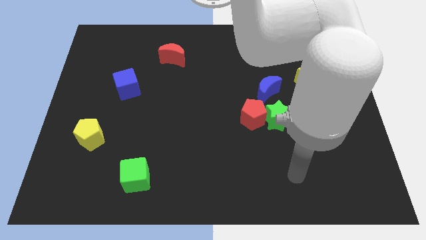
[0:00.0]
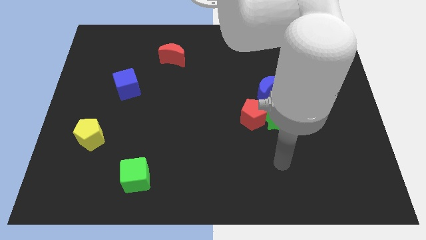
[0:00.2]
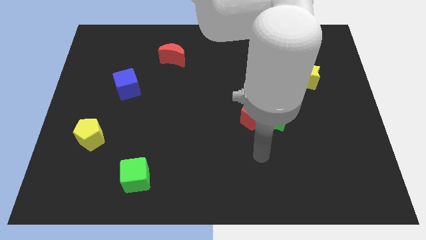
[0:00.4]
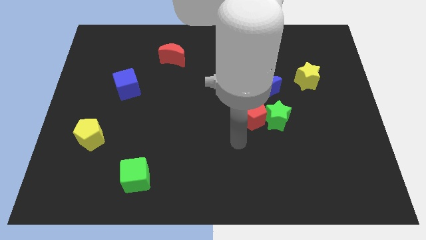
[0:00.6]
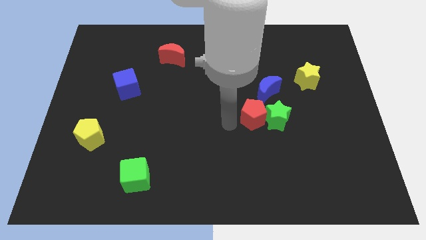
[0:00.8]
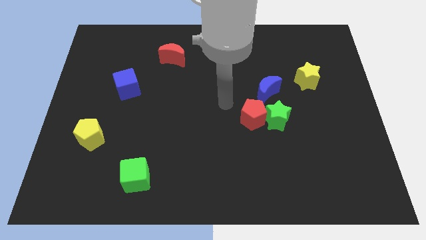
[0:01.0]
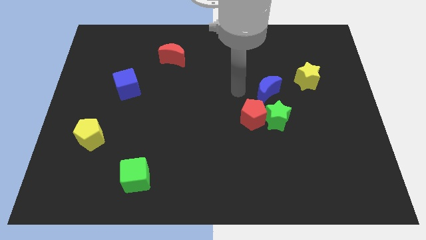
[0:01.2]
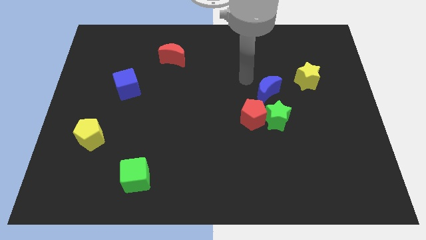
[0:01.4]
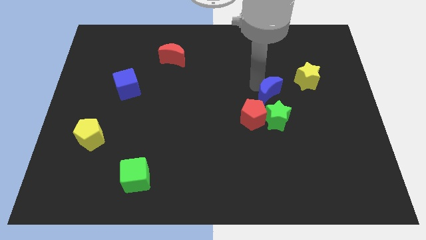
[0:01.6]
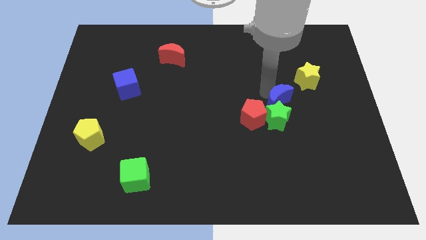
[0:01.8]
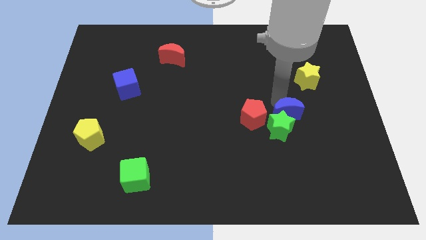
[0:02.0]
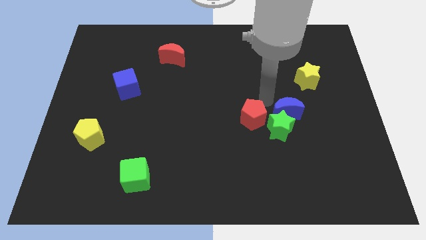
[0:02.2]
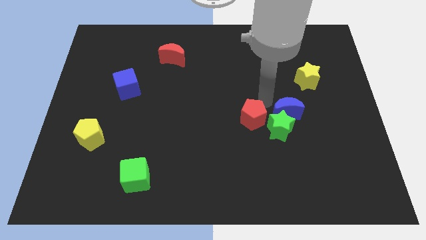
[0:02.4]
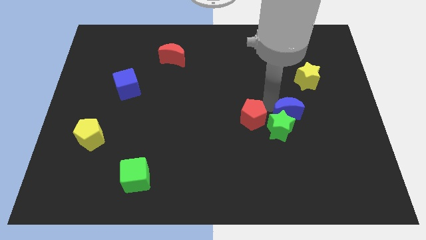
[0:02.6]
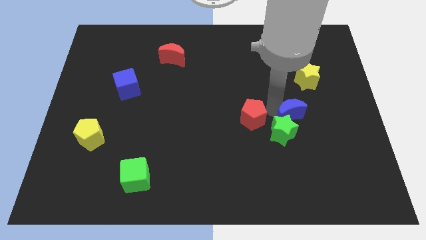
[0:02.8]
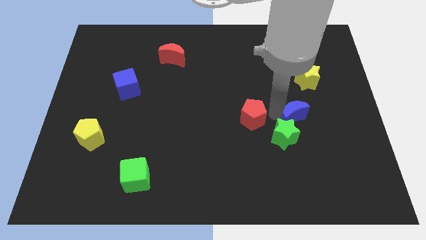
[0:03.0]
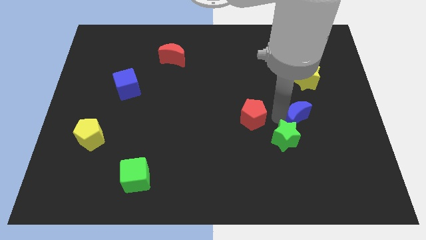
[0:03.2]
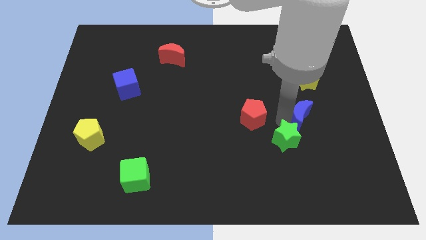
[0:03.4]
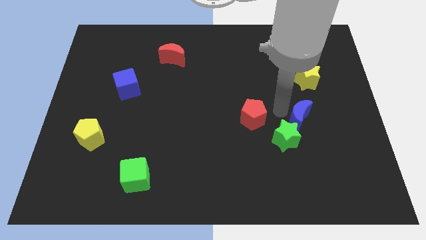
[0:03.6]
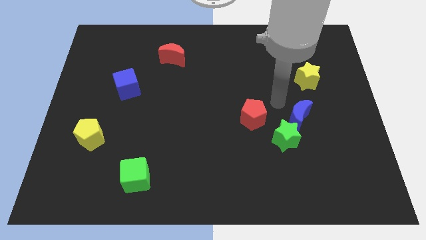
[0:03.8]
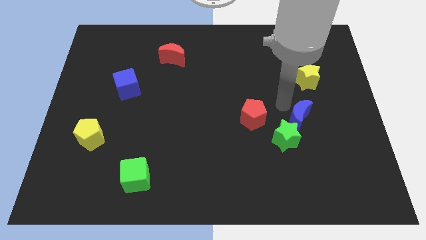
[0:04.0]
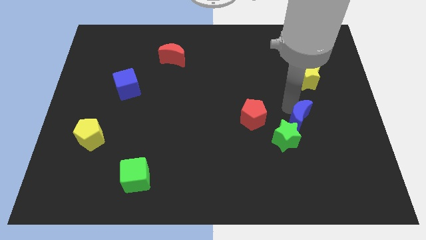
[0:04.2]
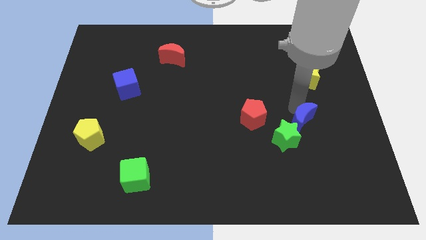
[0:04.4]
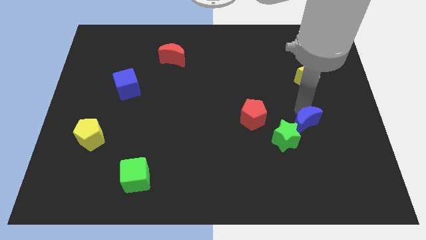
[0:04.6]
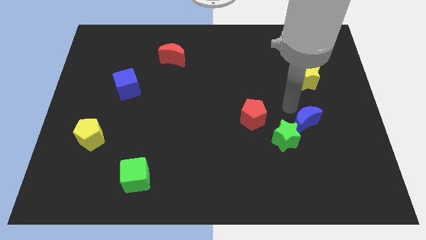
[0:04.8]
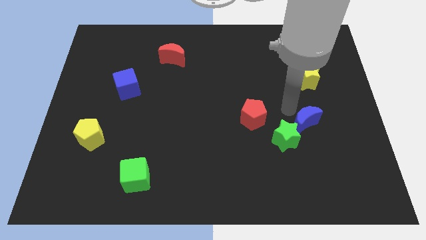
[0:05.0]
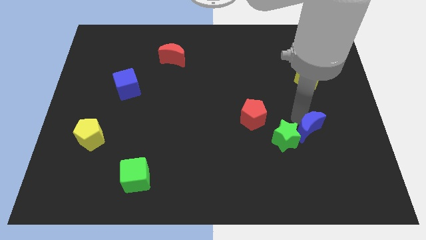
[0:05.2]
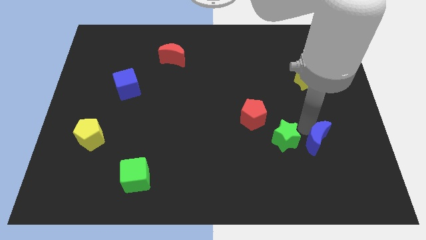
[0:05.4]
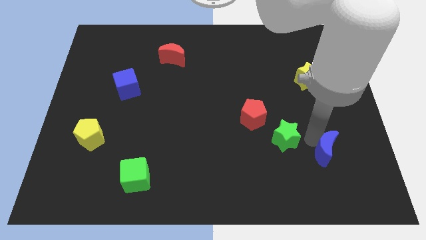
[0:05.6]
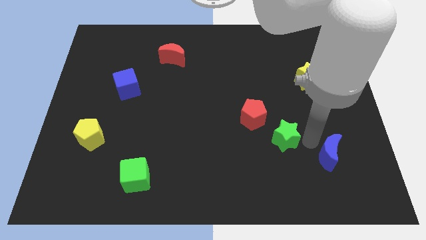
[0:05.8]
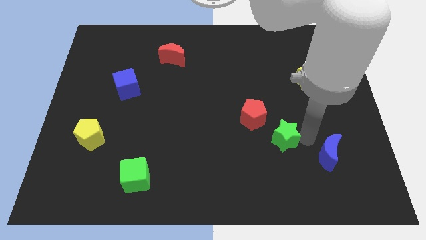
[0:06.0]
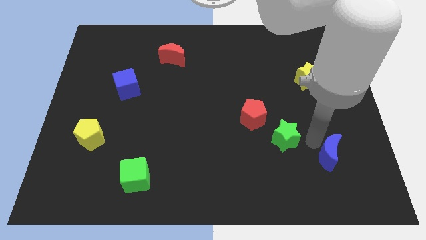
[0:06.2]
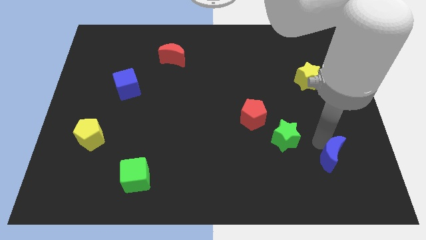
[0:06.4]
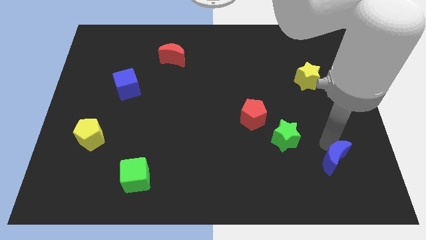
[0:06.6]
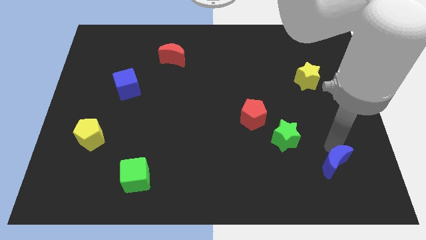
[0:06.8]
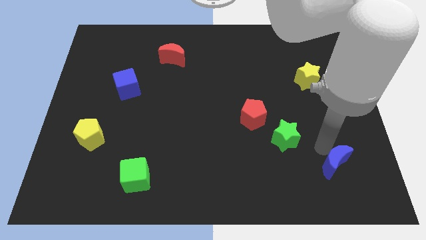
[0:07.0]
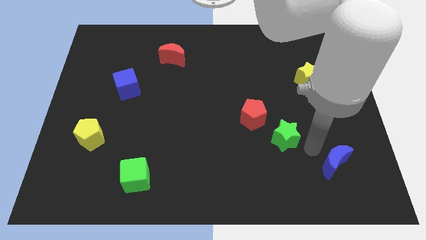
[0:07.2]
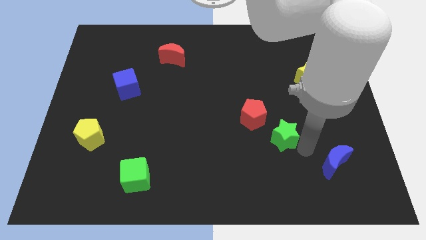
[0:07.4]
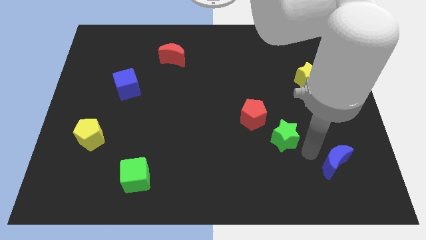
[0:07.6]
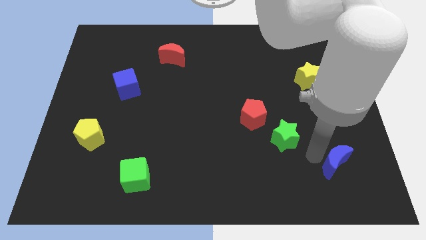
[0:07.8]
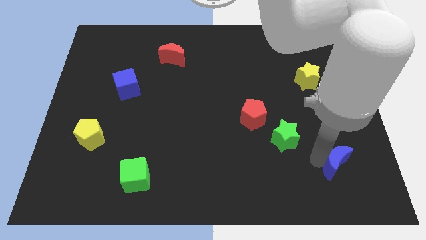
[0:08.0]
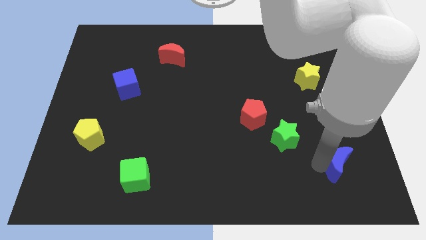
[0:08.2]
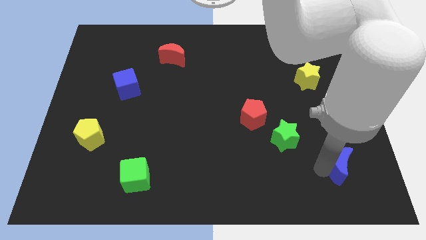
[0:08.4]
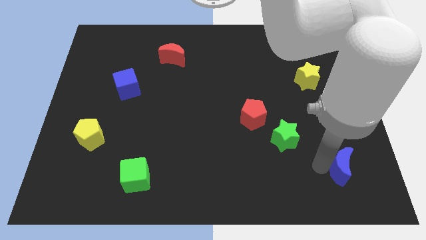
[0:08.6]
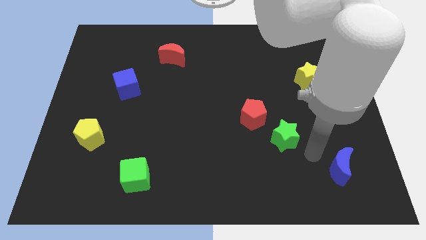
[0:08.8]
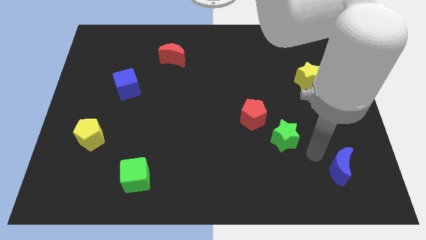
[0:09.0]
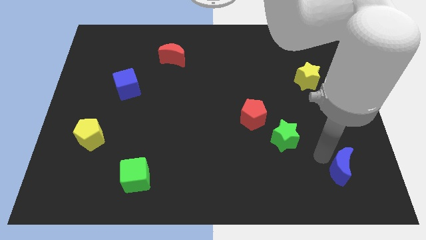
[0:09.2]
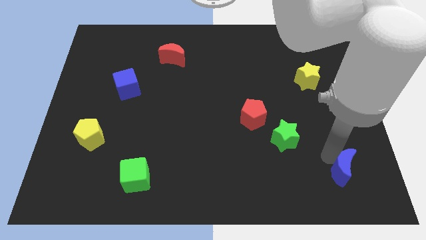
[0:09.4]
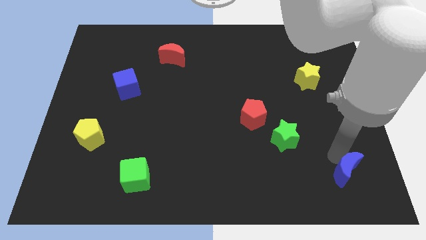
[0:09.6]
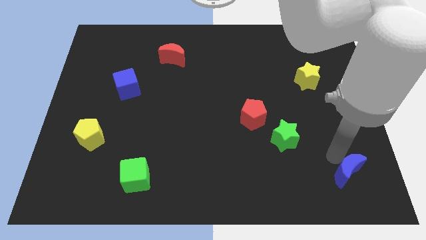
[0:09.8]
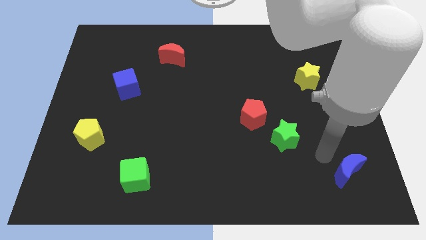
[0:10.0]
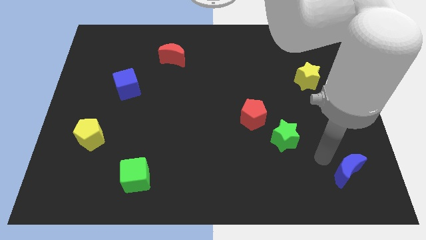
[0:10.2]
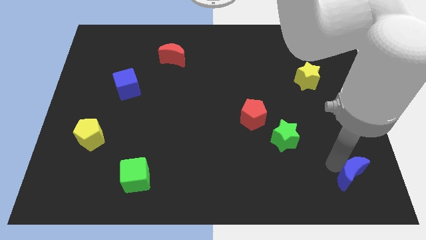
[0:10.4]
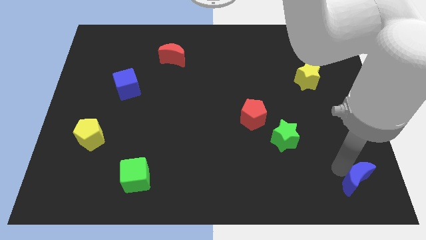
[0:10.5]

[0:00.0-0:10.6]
slide the blue moon to the bottom right

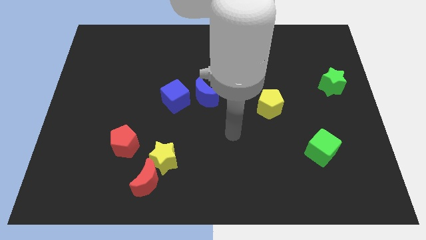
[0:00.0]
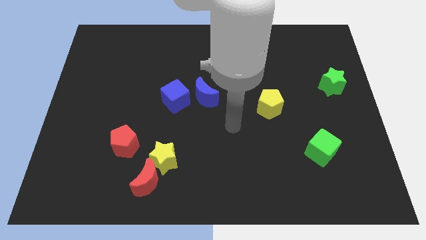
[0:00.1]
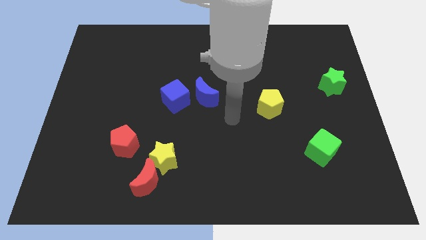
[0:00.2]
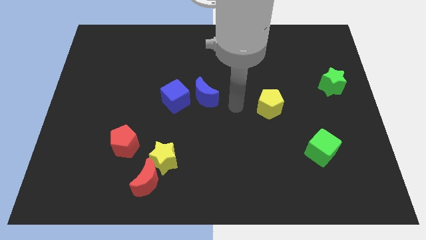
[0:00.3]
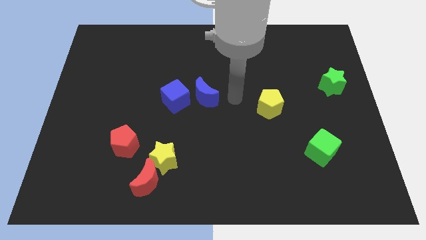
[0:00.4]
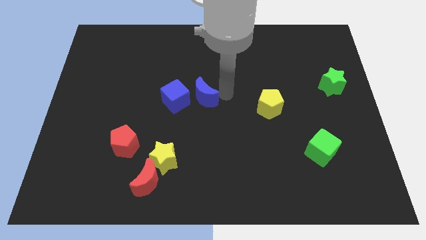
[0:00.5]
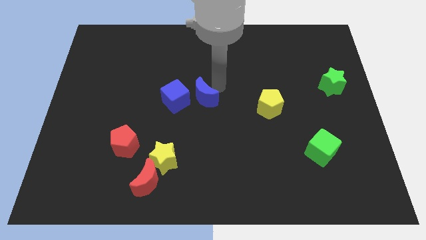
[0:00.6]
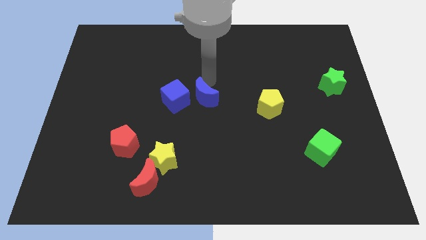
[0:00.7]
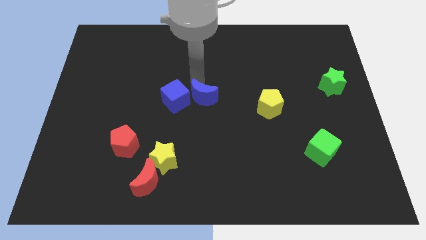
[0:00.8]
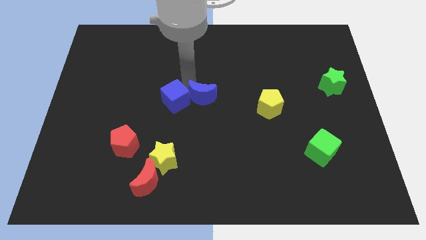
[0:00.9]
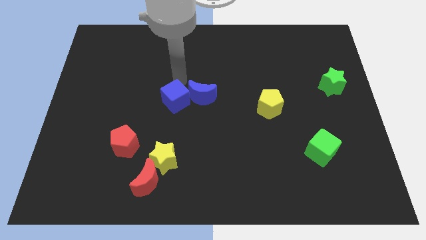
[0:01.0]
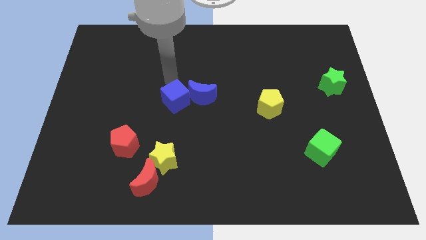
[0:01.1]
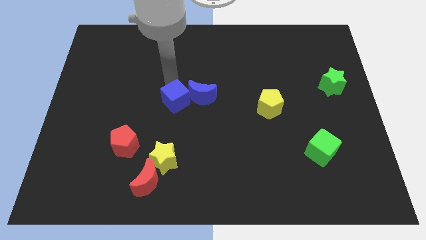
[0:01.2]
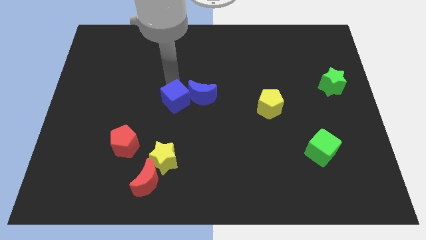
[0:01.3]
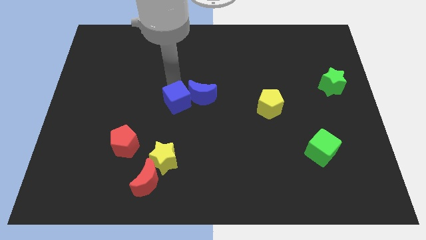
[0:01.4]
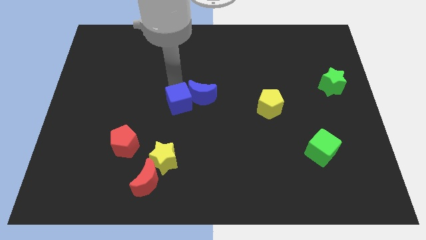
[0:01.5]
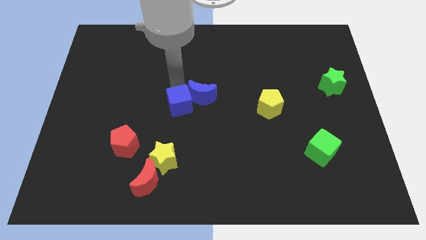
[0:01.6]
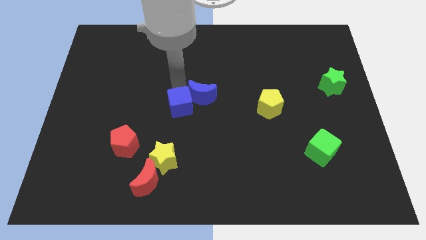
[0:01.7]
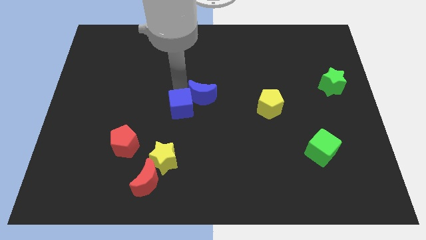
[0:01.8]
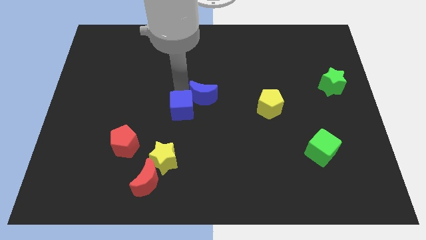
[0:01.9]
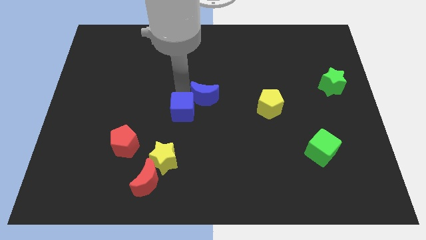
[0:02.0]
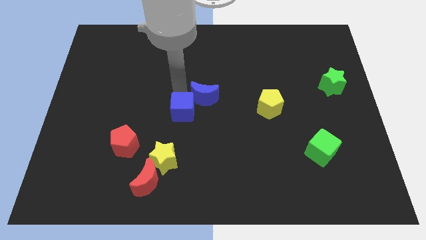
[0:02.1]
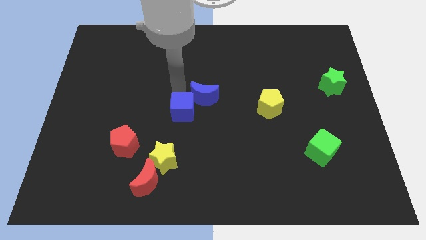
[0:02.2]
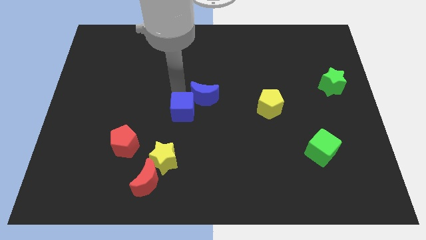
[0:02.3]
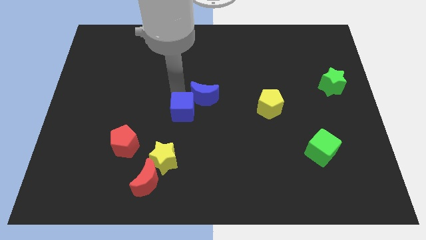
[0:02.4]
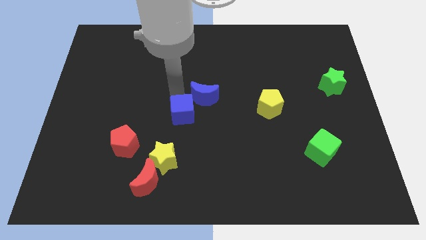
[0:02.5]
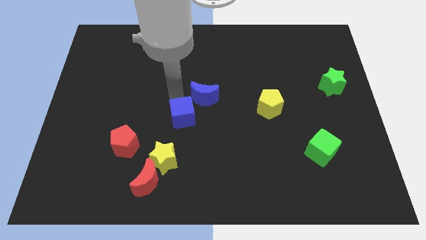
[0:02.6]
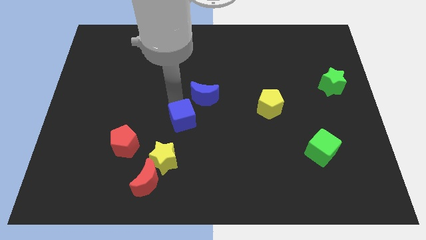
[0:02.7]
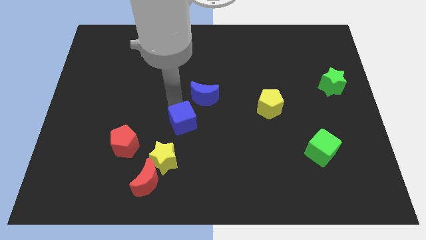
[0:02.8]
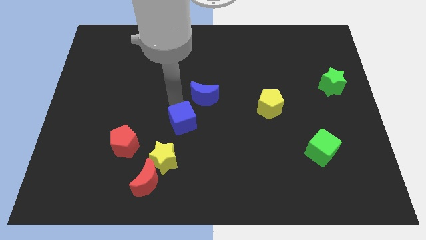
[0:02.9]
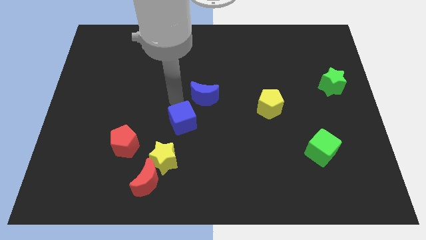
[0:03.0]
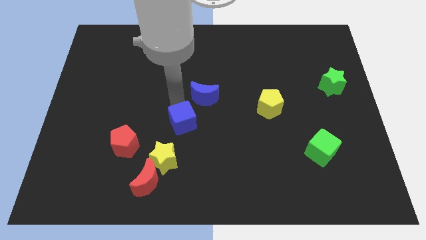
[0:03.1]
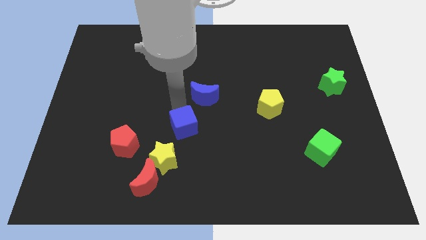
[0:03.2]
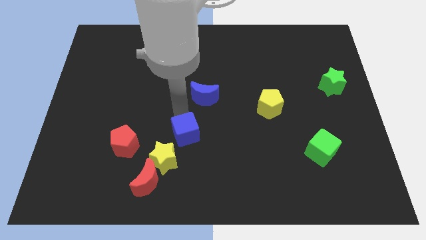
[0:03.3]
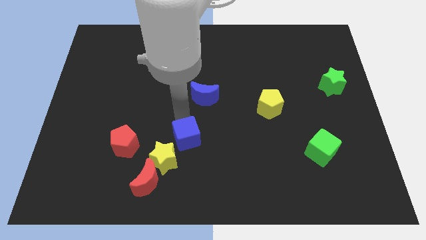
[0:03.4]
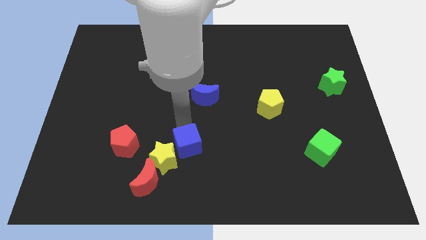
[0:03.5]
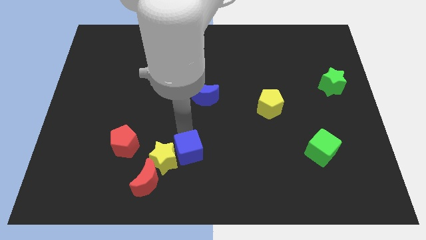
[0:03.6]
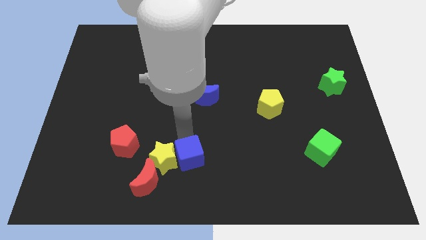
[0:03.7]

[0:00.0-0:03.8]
put the blue cube to the bottom
